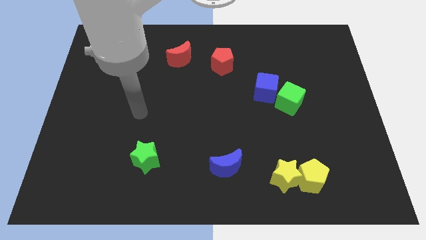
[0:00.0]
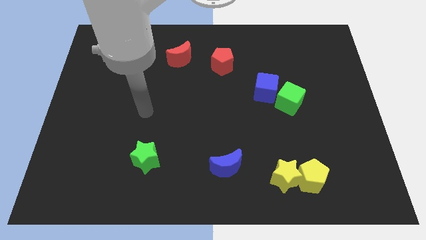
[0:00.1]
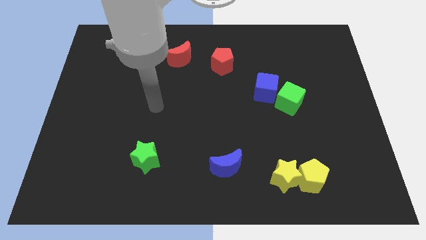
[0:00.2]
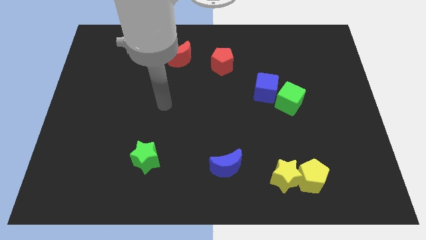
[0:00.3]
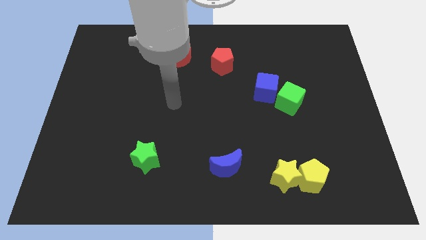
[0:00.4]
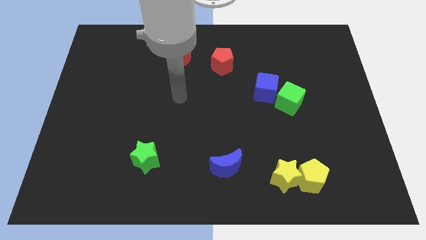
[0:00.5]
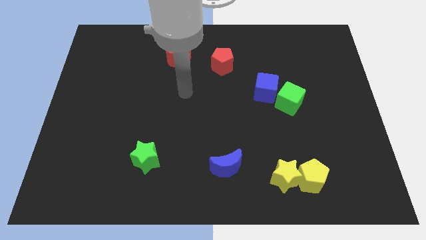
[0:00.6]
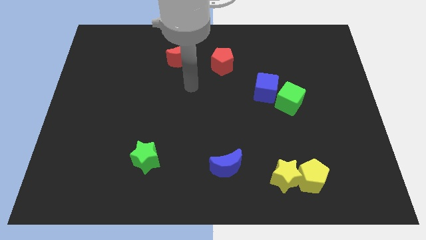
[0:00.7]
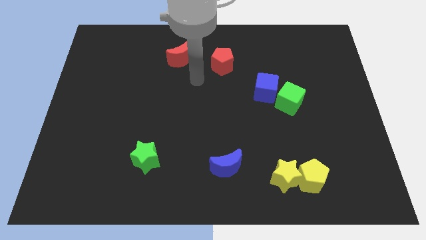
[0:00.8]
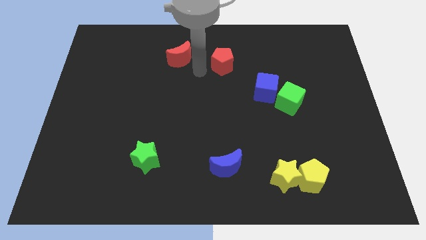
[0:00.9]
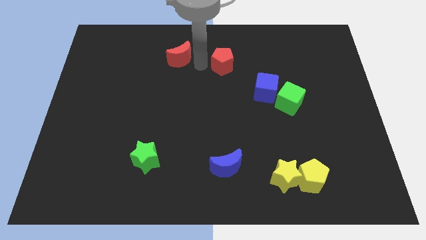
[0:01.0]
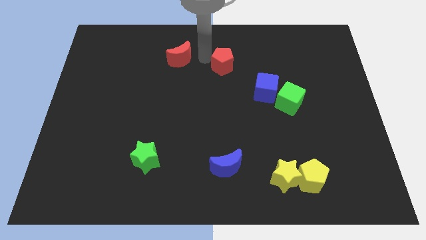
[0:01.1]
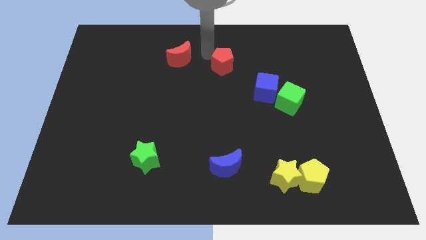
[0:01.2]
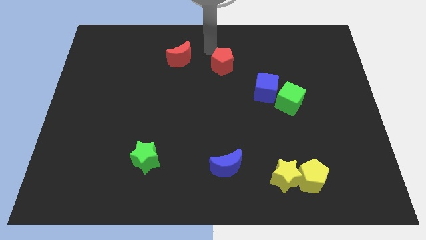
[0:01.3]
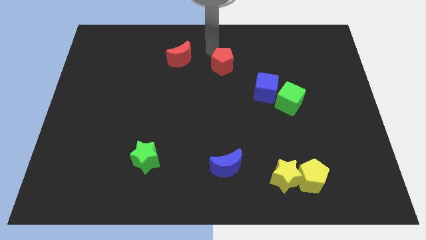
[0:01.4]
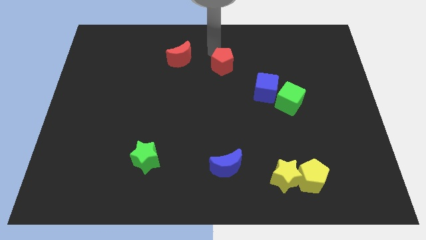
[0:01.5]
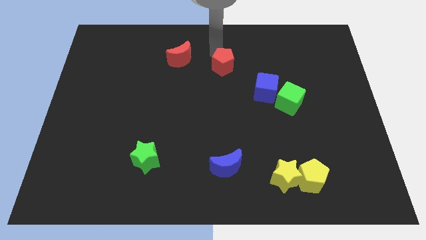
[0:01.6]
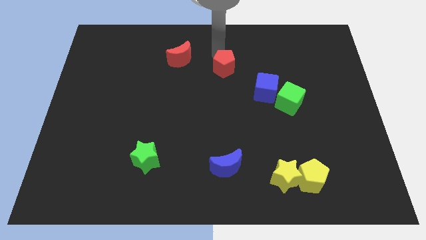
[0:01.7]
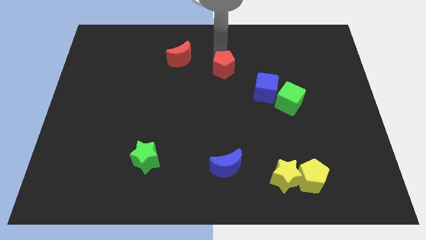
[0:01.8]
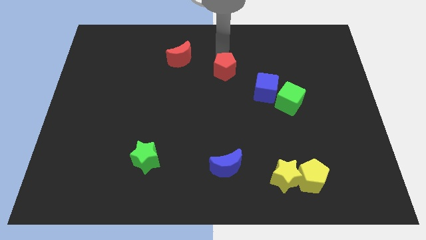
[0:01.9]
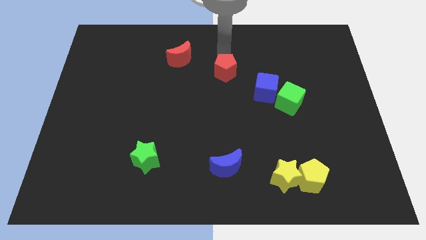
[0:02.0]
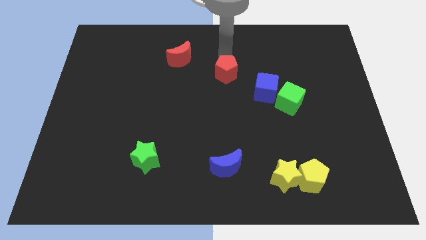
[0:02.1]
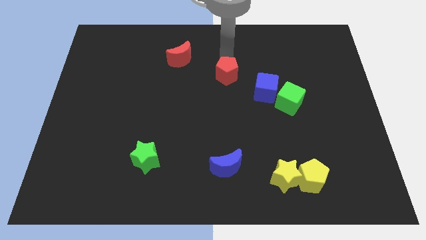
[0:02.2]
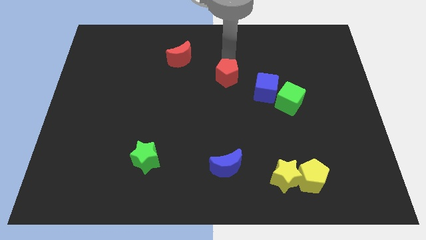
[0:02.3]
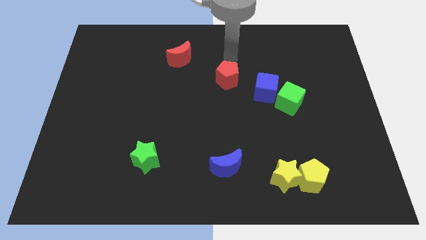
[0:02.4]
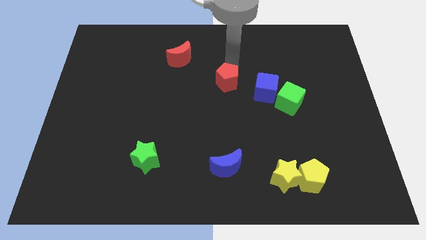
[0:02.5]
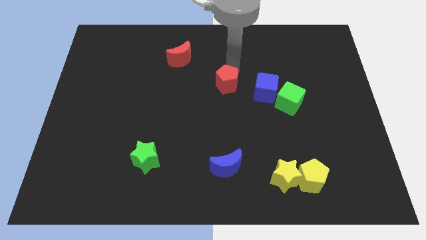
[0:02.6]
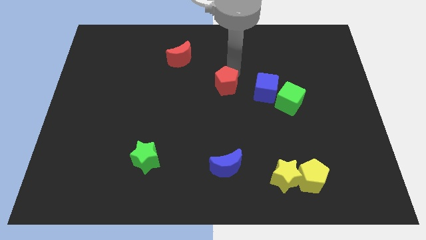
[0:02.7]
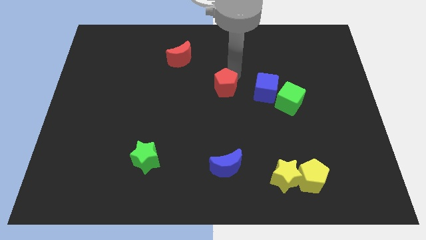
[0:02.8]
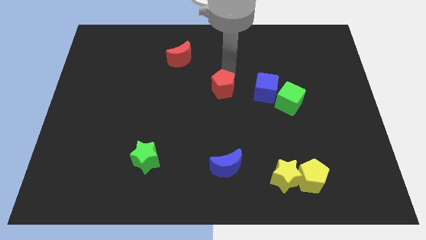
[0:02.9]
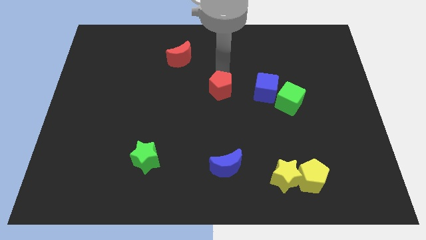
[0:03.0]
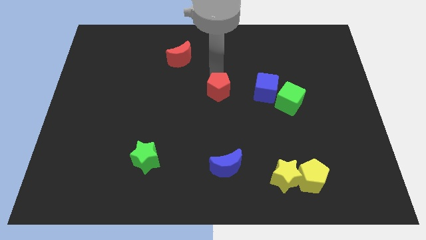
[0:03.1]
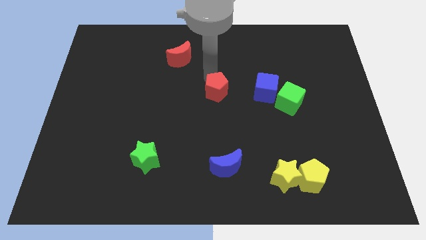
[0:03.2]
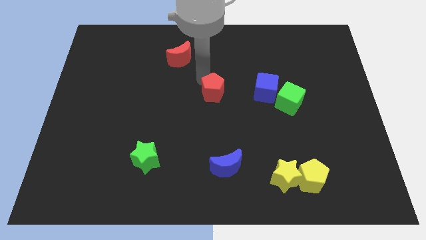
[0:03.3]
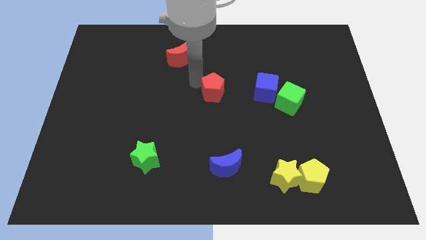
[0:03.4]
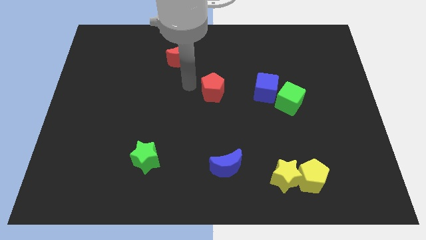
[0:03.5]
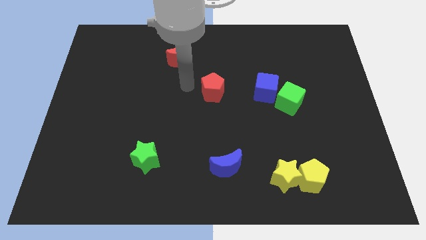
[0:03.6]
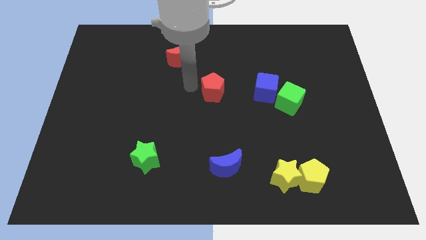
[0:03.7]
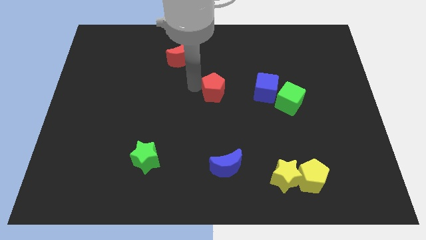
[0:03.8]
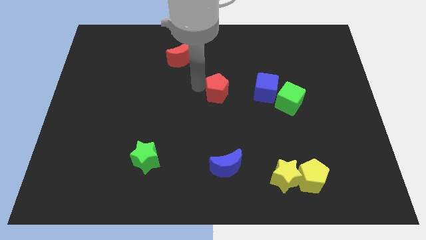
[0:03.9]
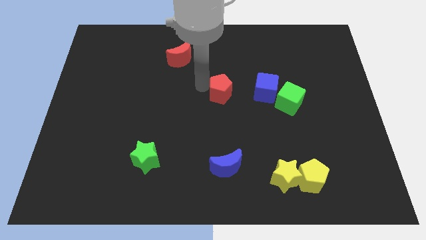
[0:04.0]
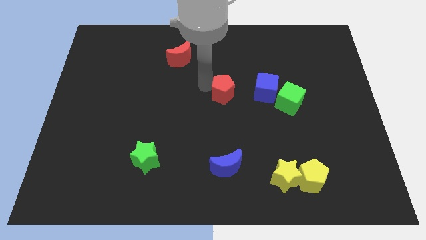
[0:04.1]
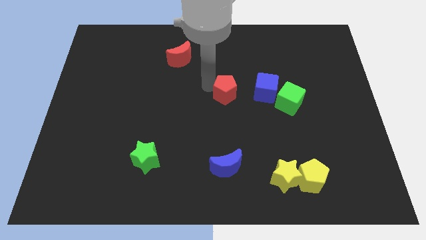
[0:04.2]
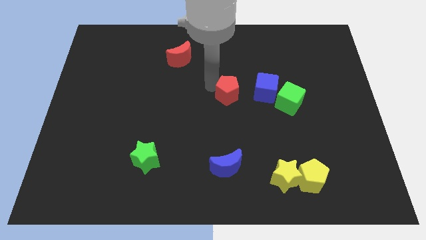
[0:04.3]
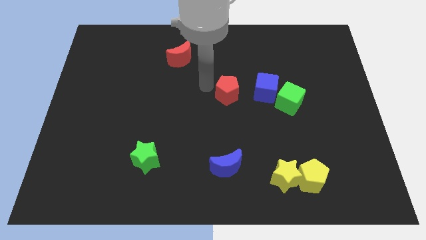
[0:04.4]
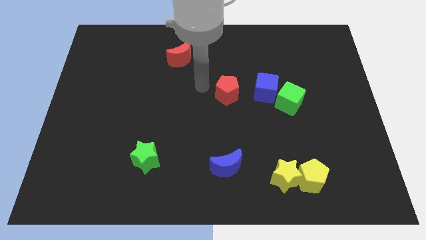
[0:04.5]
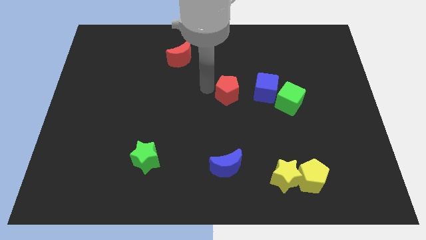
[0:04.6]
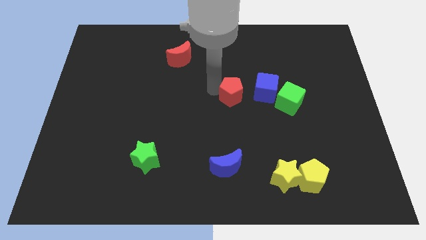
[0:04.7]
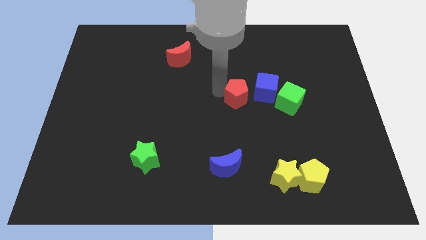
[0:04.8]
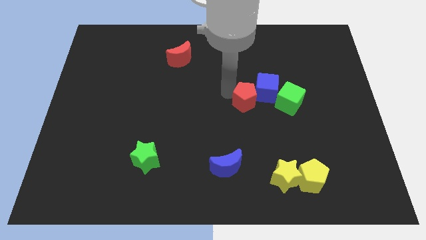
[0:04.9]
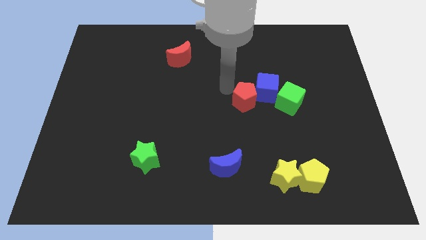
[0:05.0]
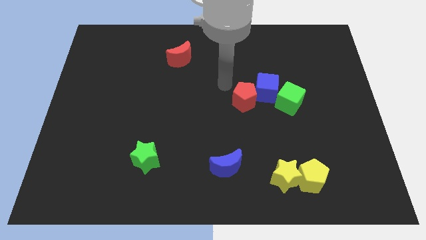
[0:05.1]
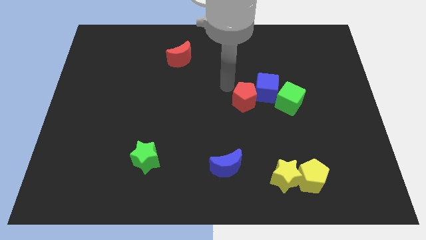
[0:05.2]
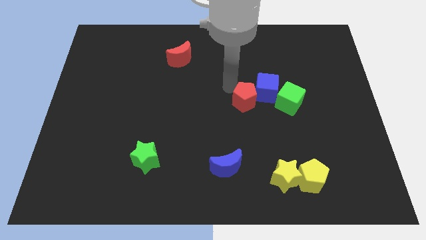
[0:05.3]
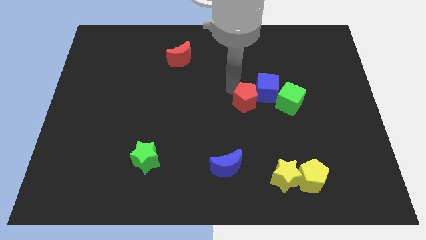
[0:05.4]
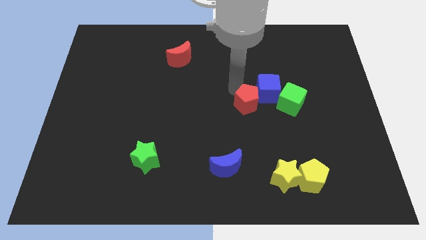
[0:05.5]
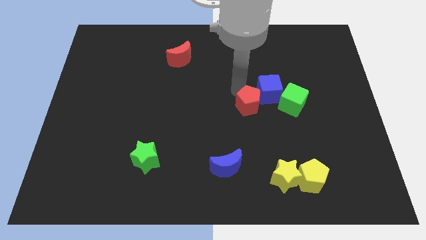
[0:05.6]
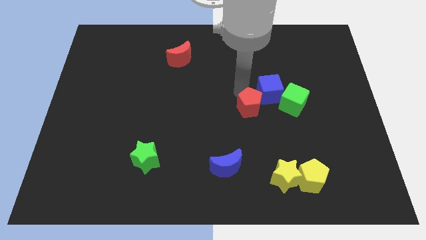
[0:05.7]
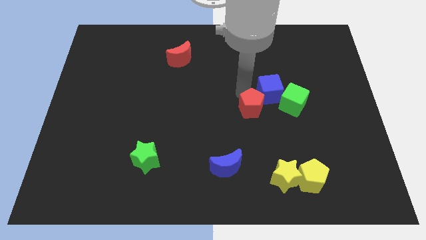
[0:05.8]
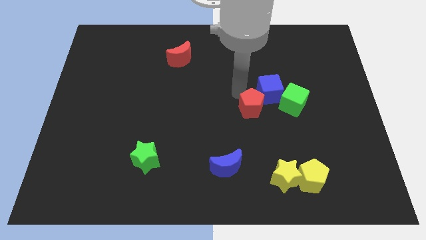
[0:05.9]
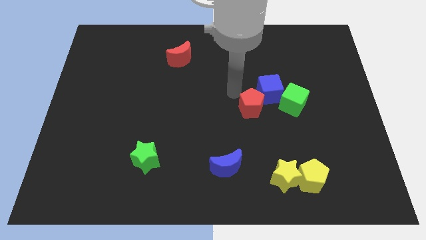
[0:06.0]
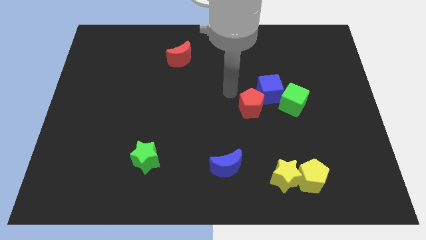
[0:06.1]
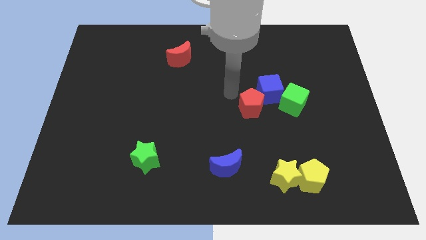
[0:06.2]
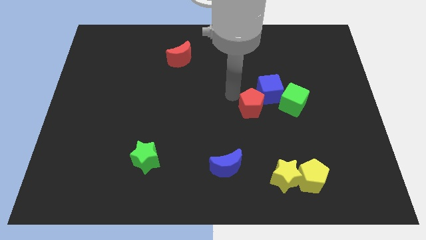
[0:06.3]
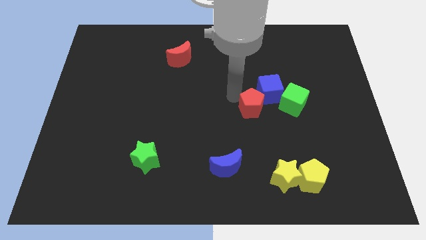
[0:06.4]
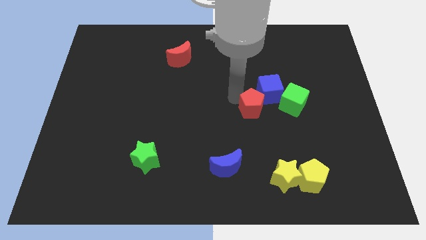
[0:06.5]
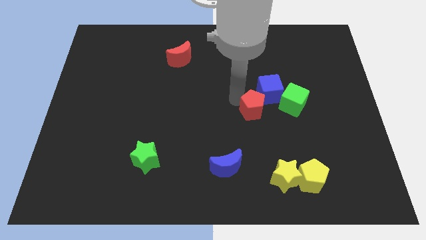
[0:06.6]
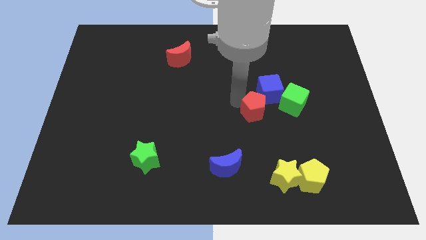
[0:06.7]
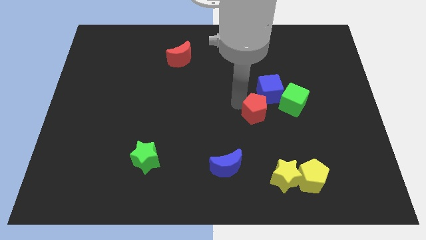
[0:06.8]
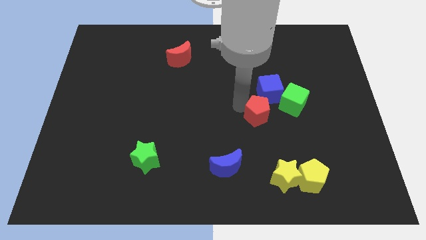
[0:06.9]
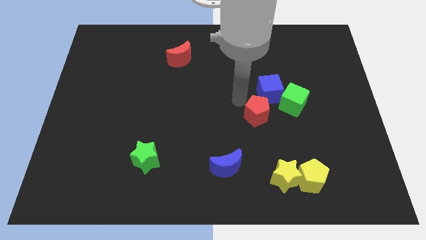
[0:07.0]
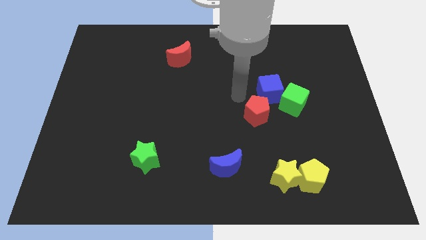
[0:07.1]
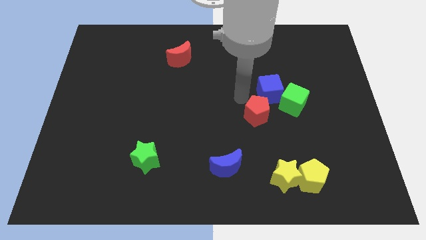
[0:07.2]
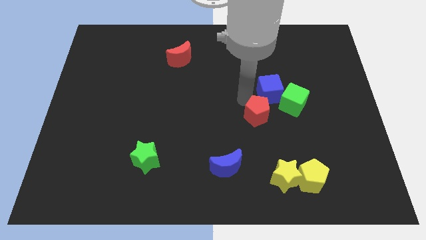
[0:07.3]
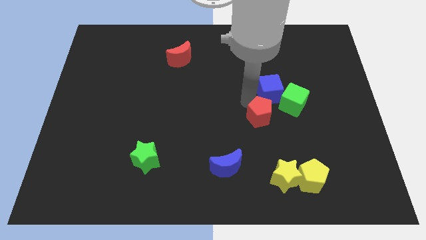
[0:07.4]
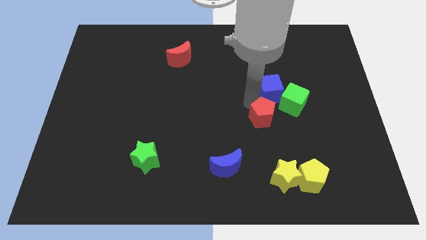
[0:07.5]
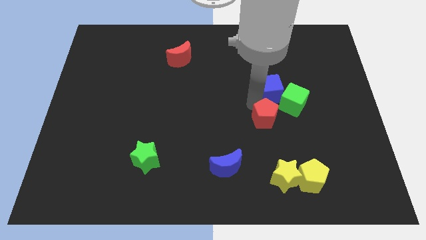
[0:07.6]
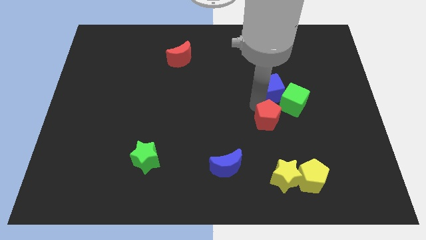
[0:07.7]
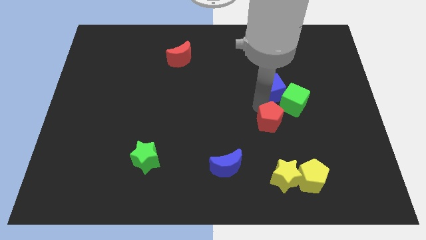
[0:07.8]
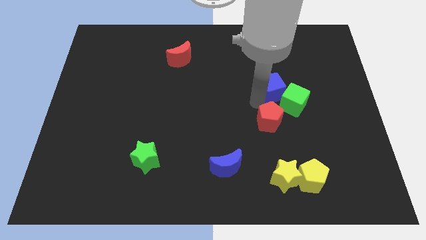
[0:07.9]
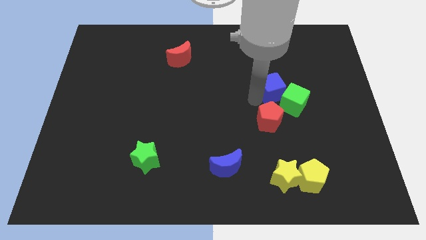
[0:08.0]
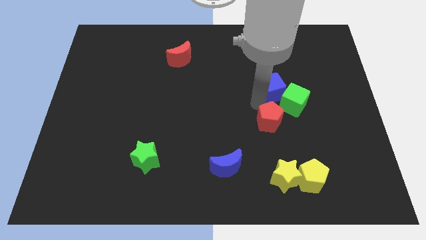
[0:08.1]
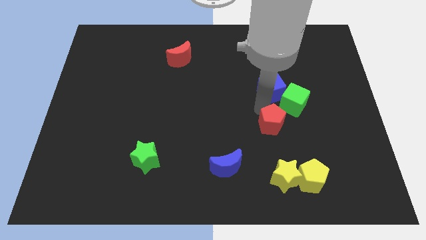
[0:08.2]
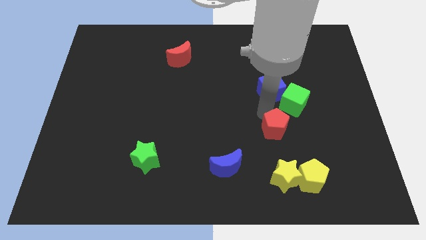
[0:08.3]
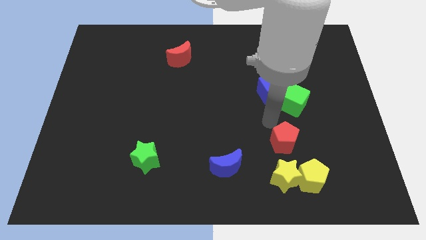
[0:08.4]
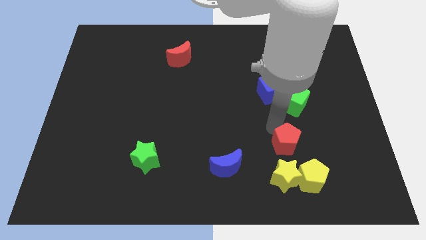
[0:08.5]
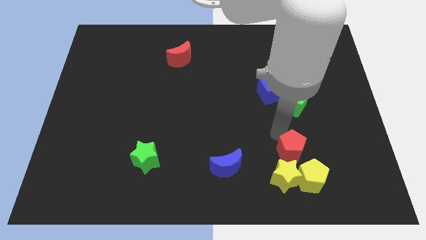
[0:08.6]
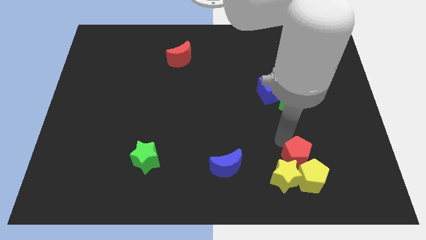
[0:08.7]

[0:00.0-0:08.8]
put the red pentagon to the yellow pentagon
